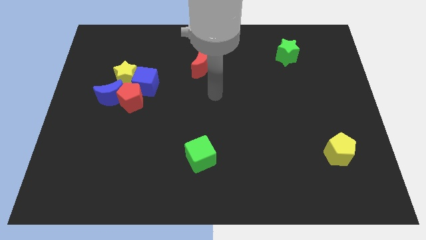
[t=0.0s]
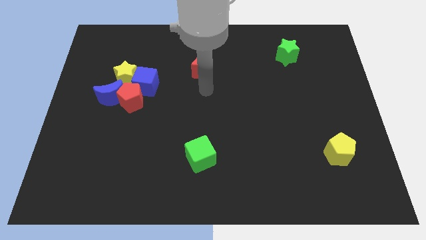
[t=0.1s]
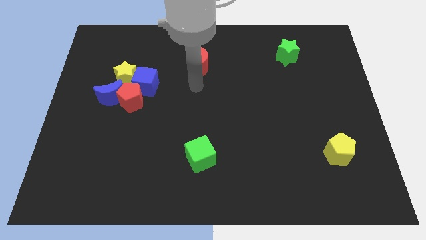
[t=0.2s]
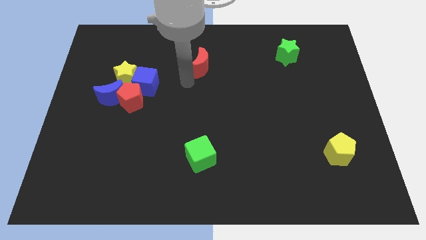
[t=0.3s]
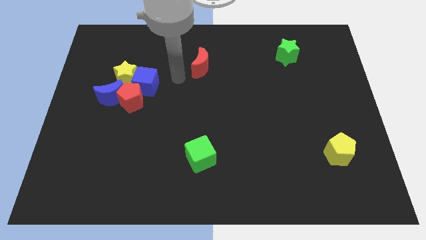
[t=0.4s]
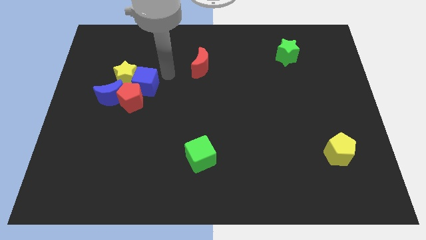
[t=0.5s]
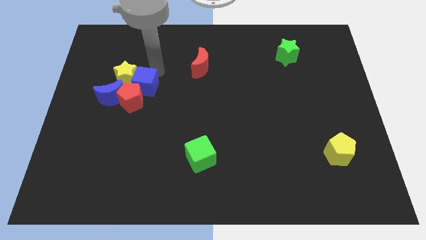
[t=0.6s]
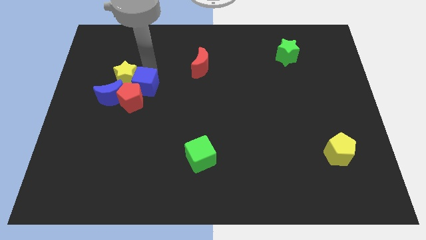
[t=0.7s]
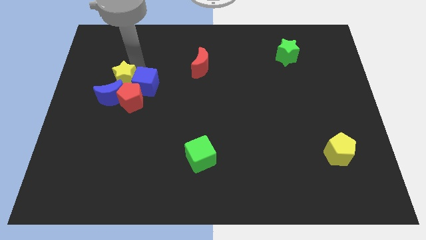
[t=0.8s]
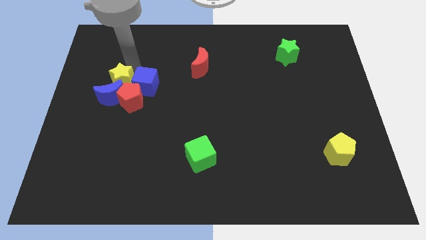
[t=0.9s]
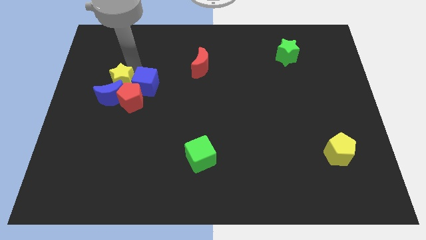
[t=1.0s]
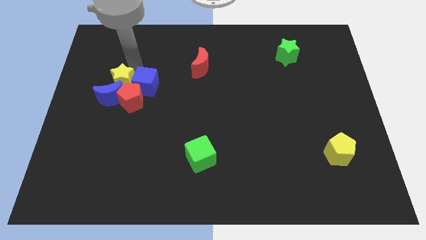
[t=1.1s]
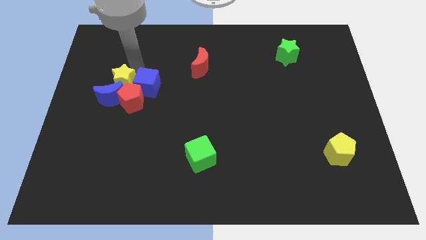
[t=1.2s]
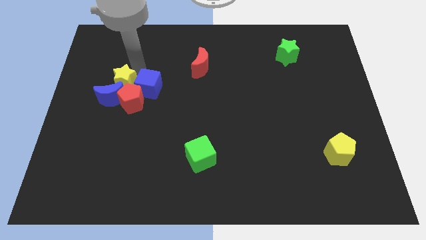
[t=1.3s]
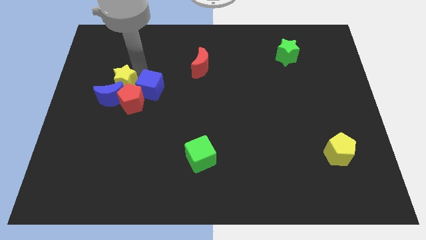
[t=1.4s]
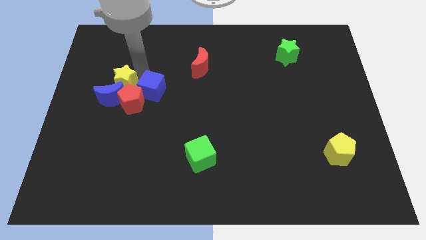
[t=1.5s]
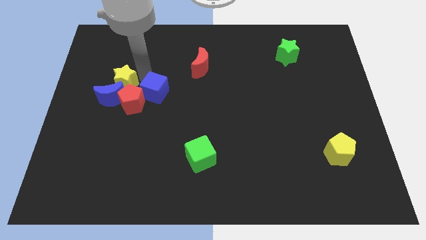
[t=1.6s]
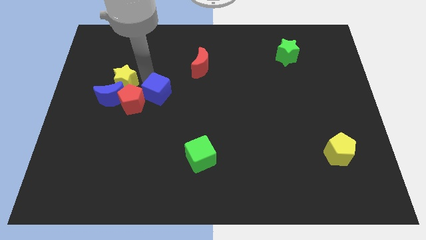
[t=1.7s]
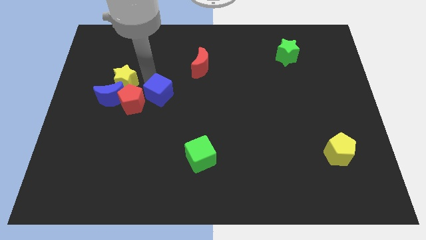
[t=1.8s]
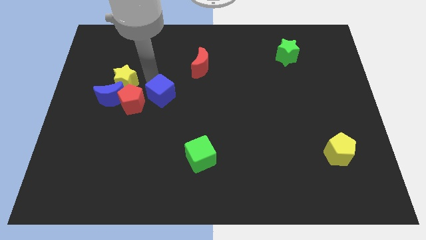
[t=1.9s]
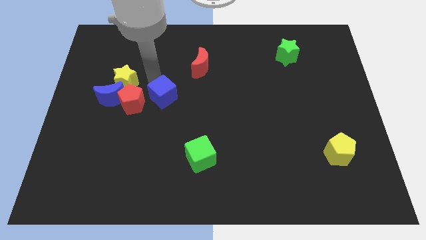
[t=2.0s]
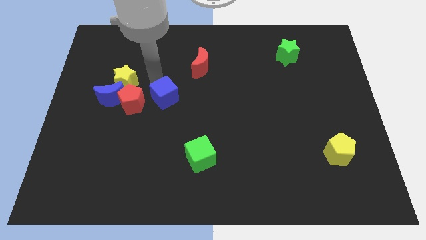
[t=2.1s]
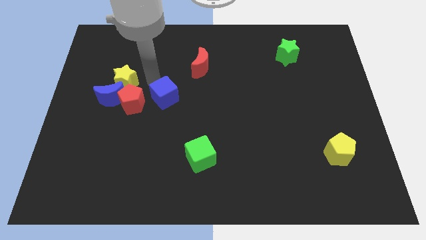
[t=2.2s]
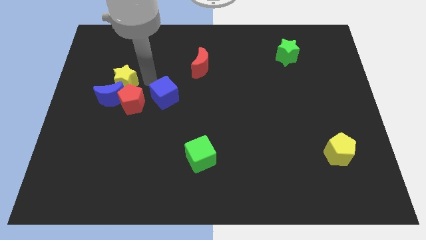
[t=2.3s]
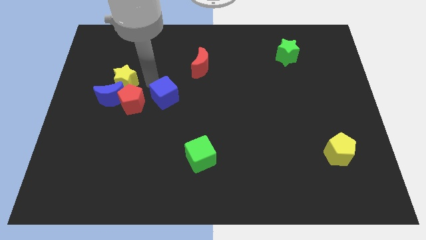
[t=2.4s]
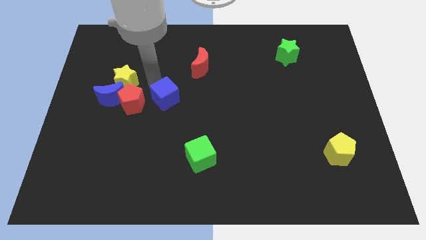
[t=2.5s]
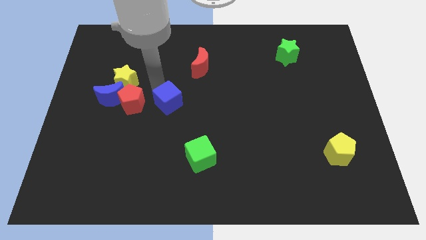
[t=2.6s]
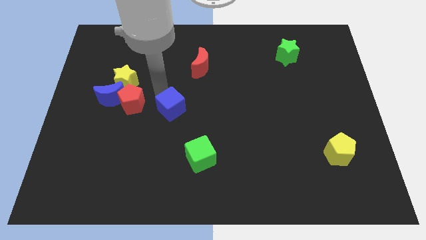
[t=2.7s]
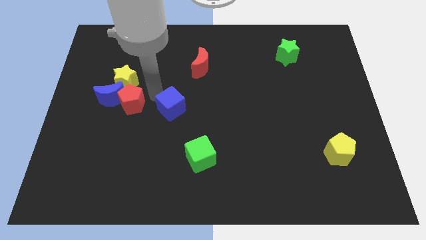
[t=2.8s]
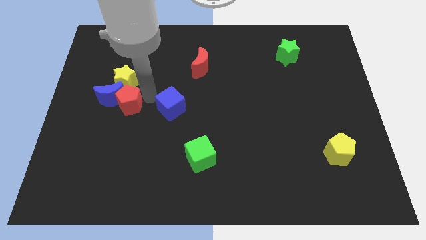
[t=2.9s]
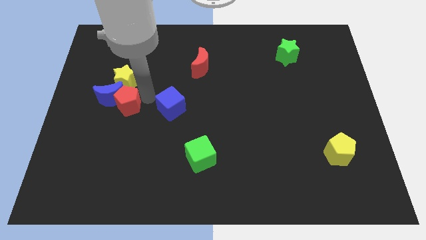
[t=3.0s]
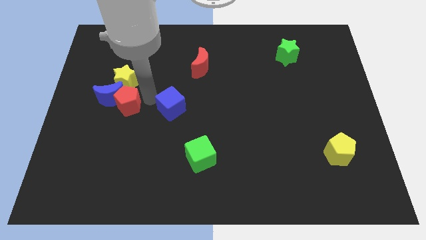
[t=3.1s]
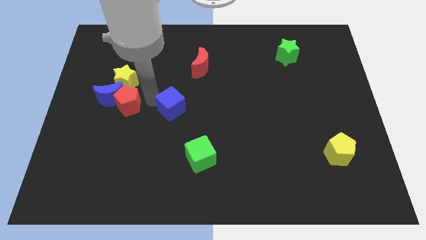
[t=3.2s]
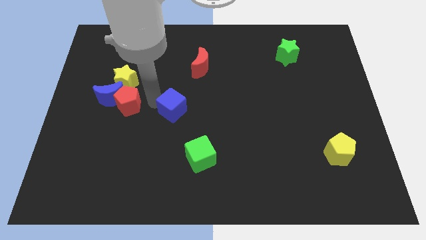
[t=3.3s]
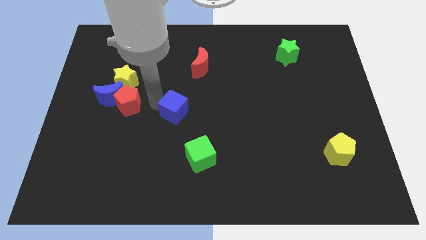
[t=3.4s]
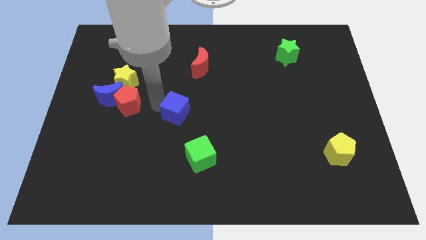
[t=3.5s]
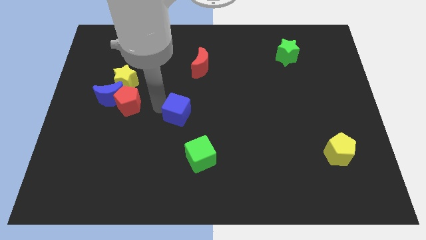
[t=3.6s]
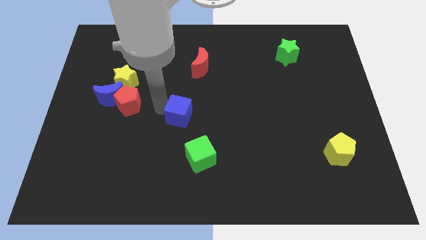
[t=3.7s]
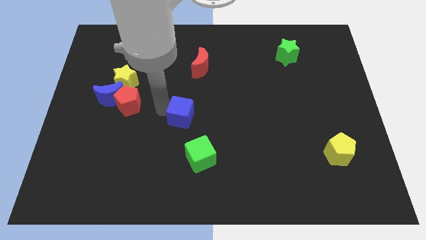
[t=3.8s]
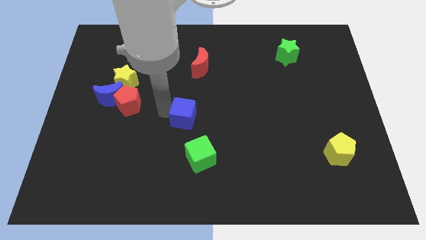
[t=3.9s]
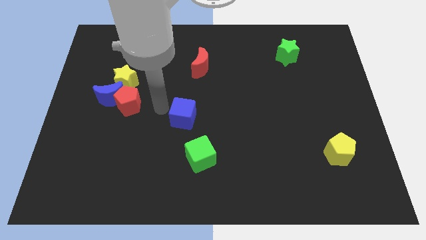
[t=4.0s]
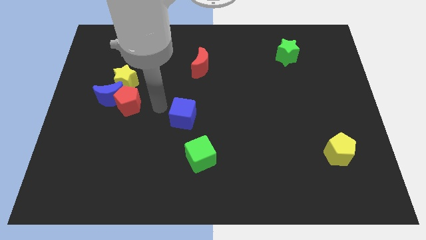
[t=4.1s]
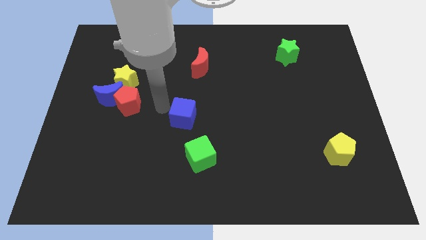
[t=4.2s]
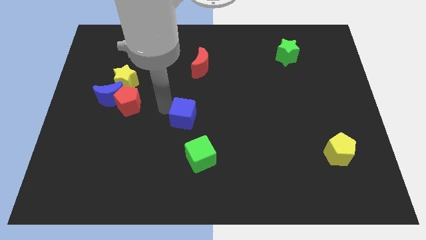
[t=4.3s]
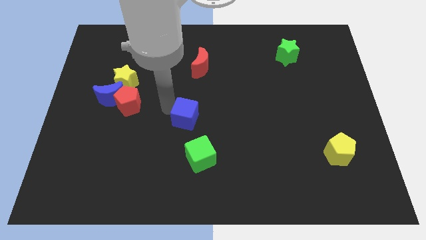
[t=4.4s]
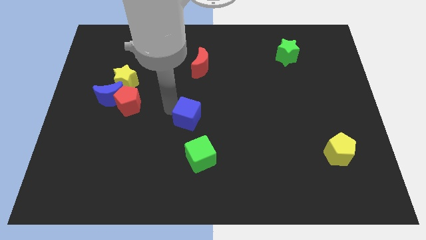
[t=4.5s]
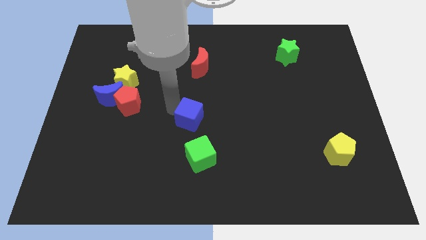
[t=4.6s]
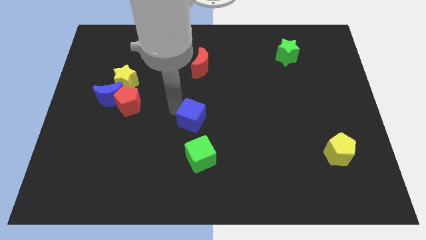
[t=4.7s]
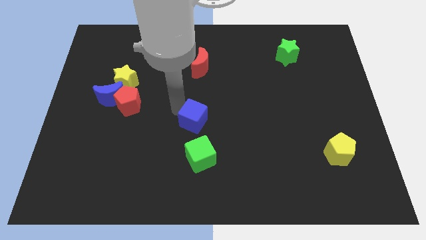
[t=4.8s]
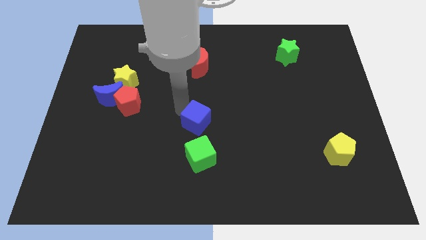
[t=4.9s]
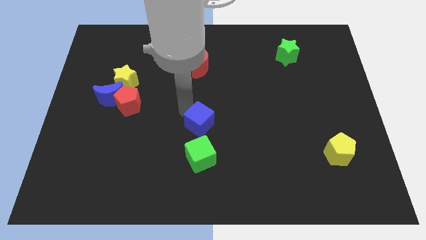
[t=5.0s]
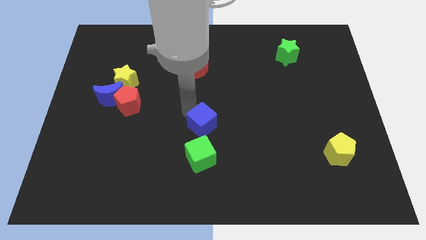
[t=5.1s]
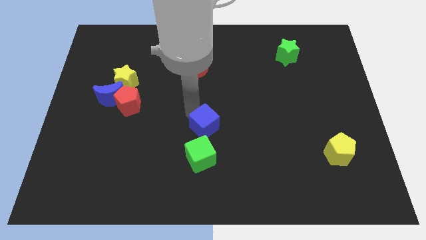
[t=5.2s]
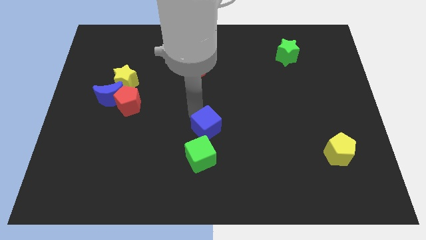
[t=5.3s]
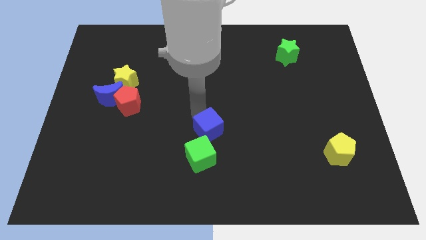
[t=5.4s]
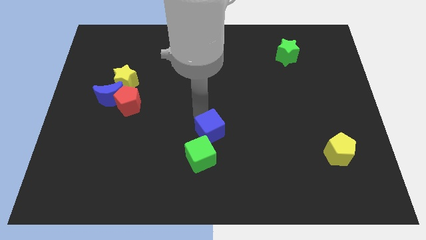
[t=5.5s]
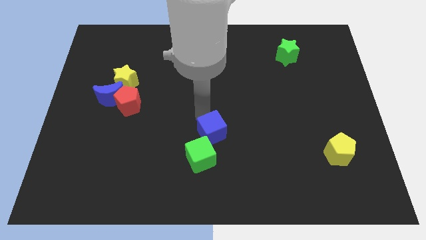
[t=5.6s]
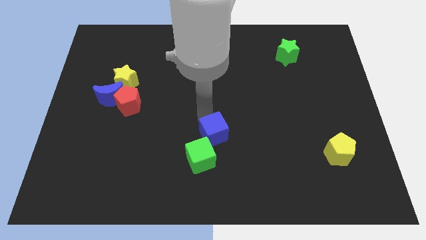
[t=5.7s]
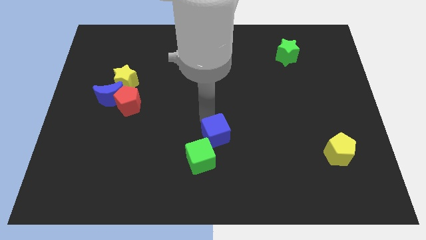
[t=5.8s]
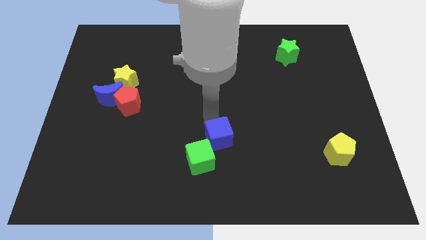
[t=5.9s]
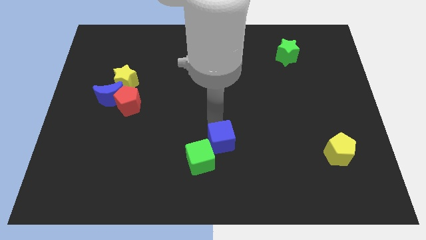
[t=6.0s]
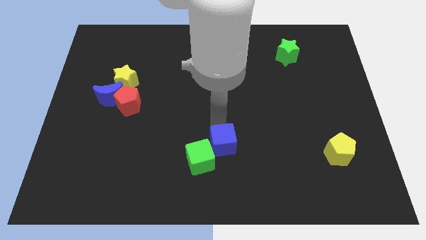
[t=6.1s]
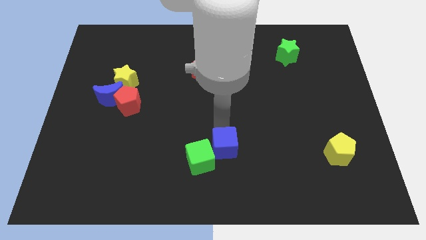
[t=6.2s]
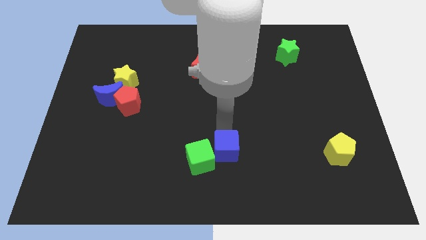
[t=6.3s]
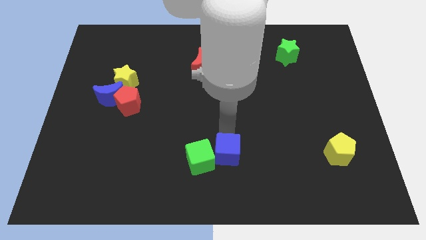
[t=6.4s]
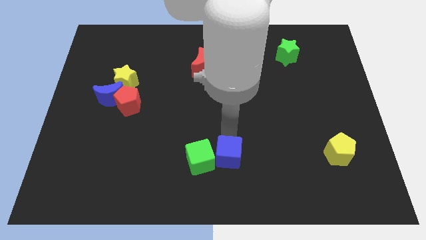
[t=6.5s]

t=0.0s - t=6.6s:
slide the blue cube diagonally down and to the right of the green cube
